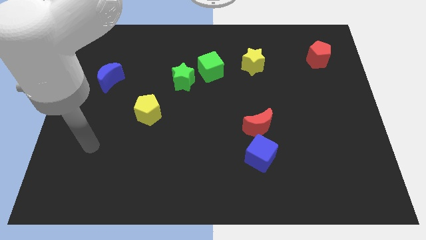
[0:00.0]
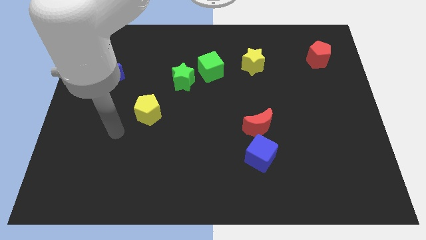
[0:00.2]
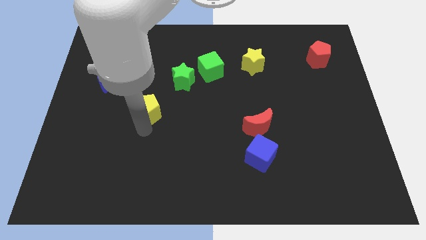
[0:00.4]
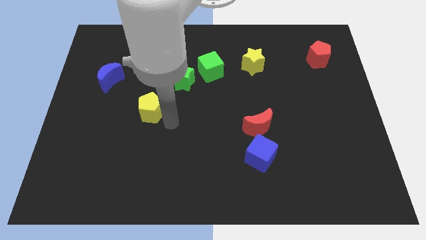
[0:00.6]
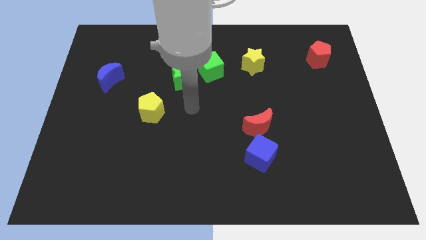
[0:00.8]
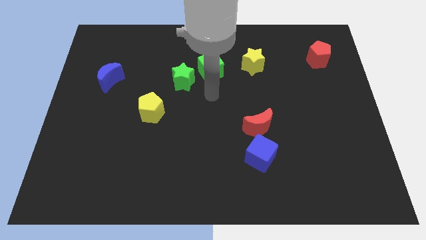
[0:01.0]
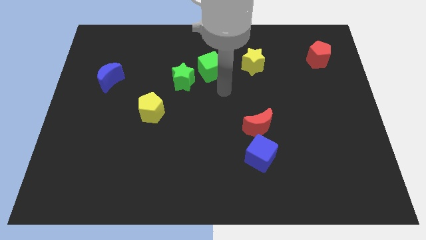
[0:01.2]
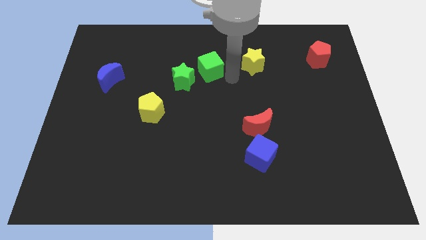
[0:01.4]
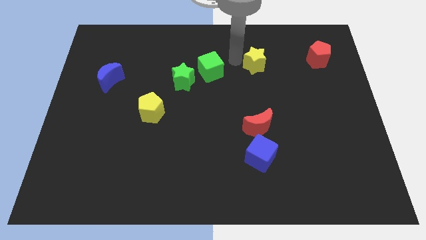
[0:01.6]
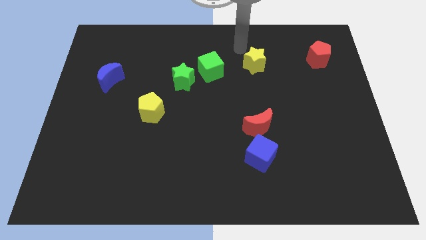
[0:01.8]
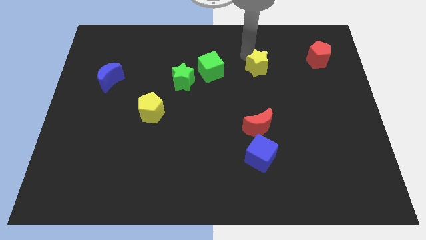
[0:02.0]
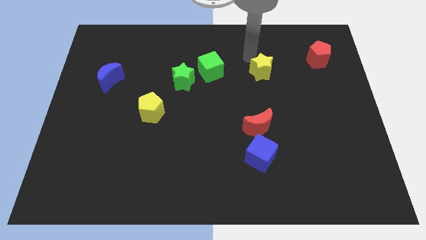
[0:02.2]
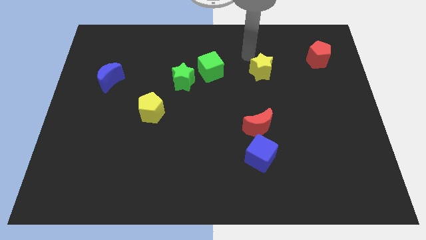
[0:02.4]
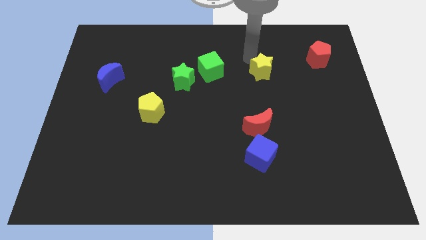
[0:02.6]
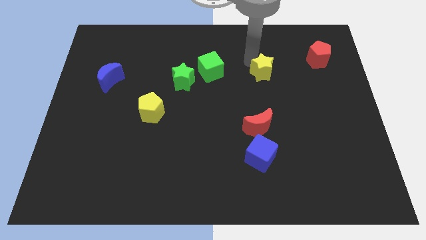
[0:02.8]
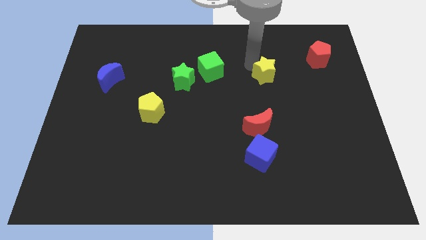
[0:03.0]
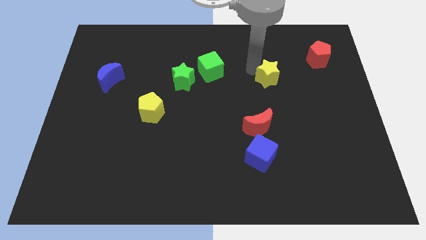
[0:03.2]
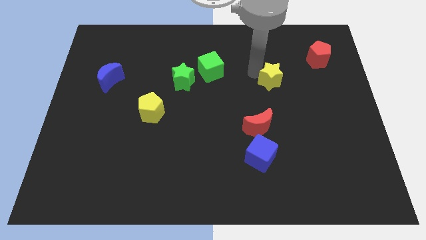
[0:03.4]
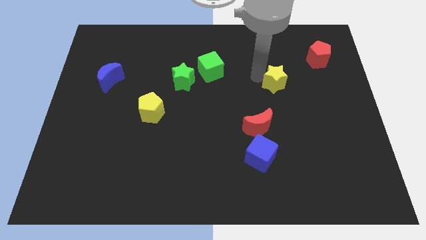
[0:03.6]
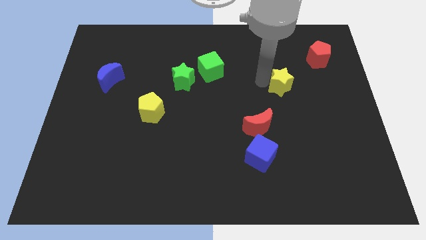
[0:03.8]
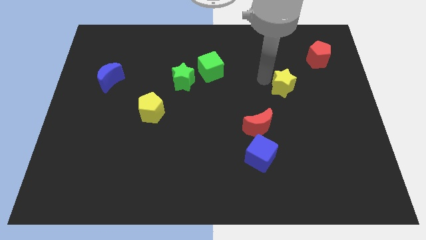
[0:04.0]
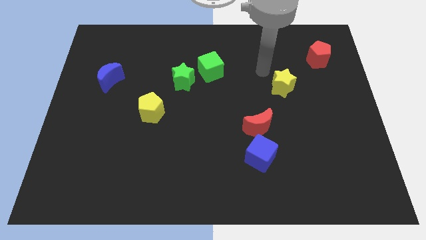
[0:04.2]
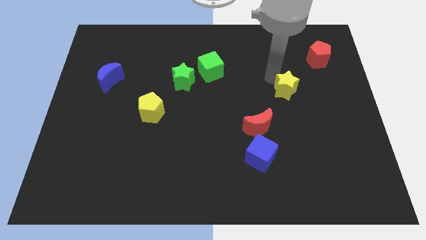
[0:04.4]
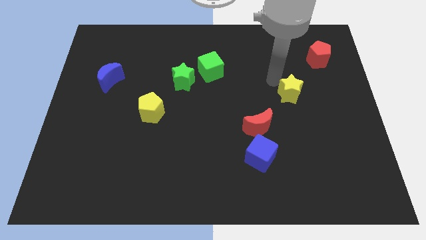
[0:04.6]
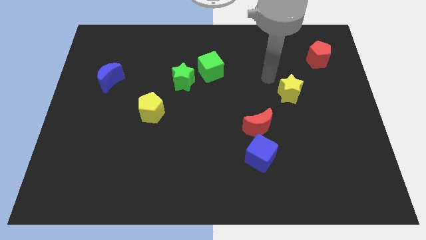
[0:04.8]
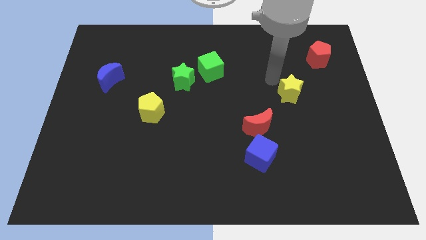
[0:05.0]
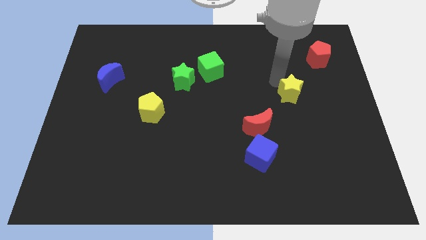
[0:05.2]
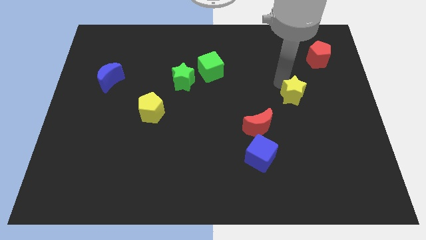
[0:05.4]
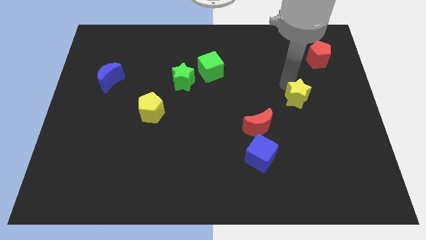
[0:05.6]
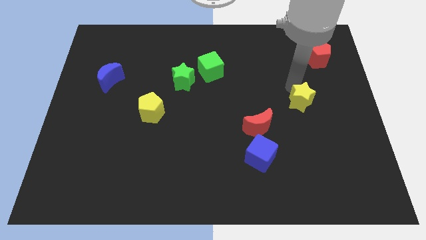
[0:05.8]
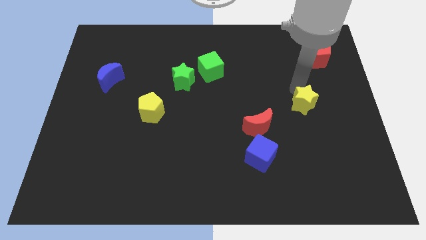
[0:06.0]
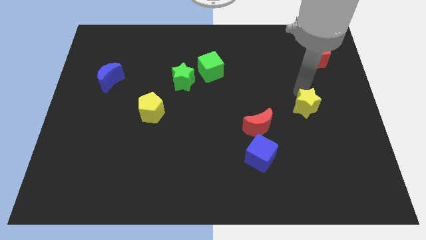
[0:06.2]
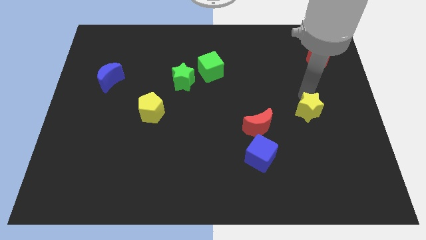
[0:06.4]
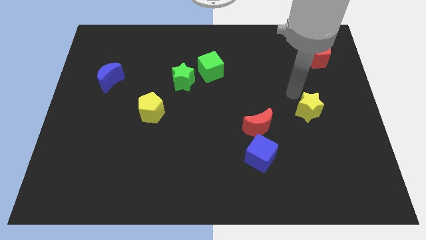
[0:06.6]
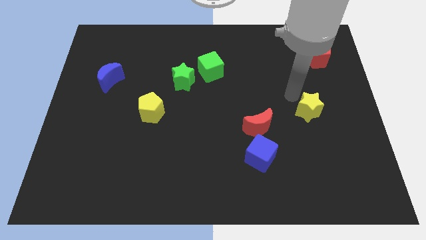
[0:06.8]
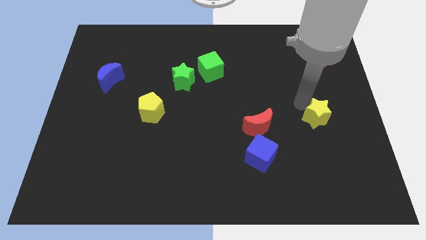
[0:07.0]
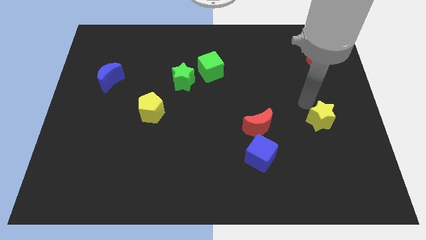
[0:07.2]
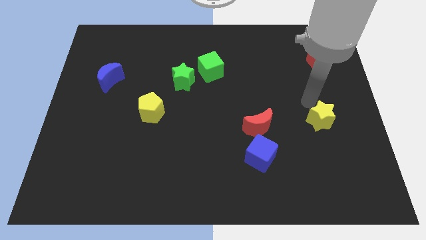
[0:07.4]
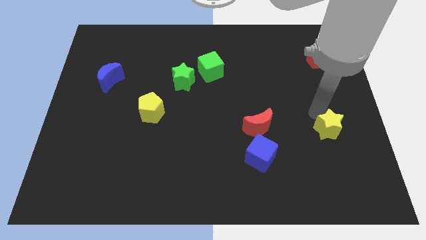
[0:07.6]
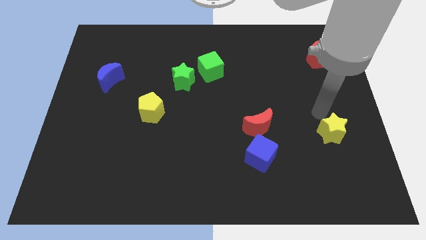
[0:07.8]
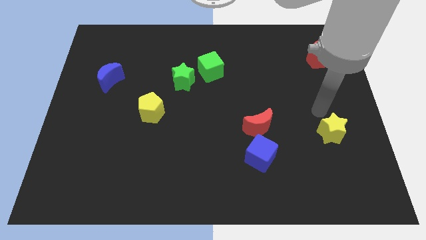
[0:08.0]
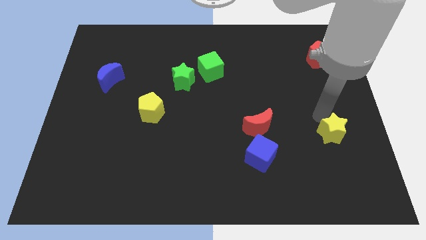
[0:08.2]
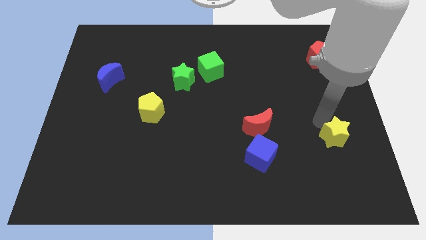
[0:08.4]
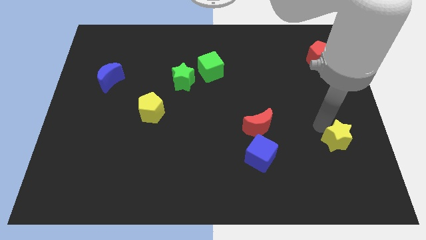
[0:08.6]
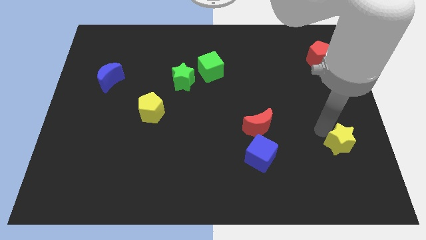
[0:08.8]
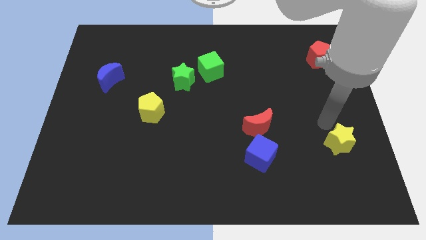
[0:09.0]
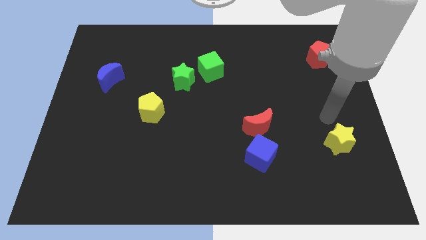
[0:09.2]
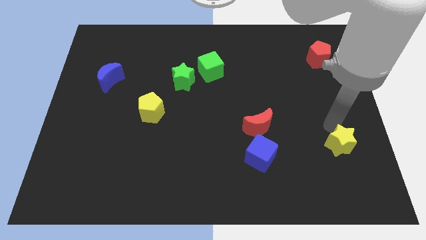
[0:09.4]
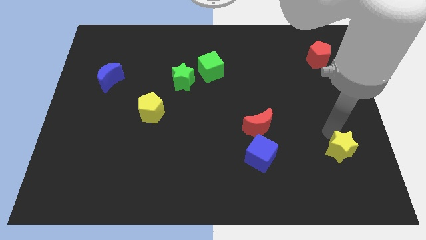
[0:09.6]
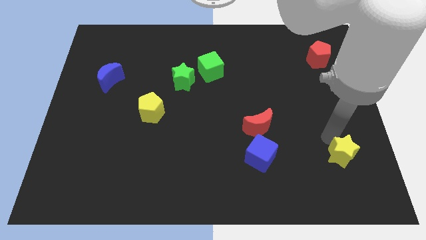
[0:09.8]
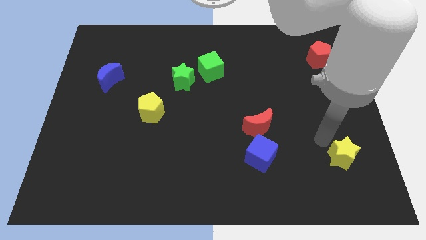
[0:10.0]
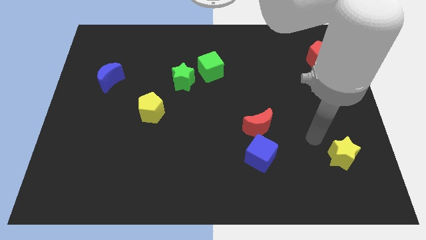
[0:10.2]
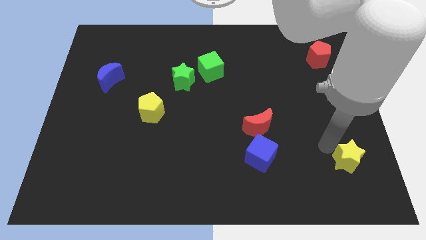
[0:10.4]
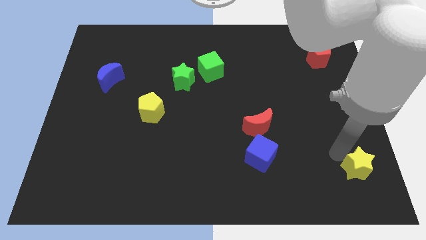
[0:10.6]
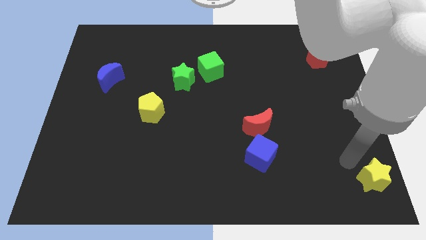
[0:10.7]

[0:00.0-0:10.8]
slide the yellow star to the bottom right of the board

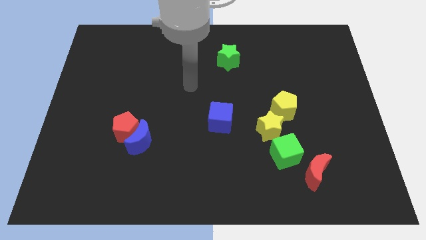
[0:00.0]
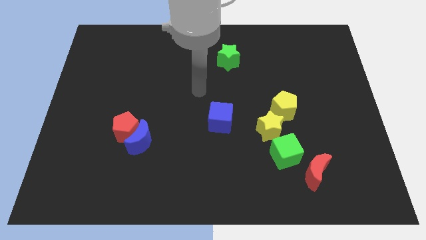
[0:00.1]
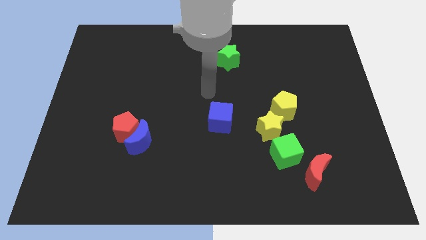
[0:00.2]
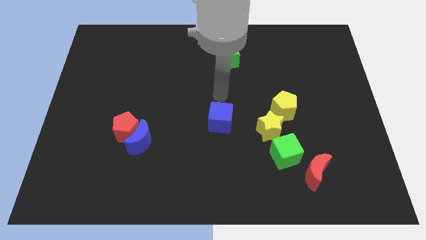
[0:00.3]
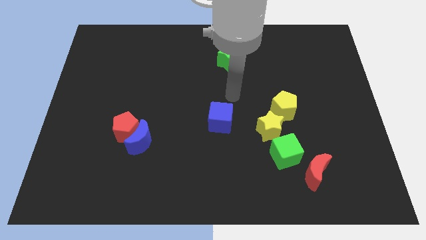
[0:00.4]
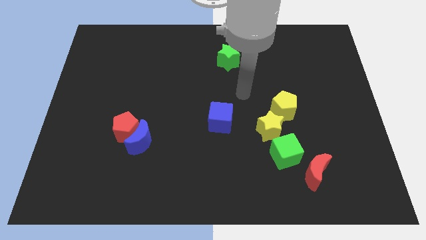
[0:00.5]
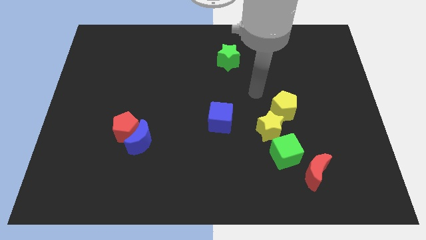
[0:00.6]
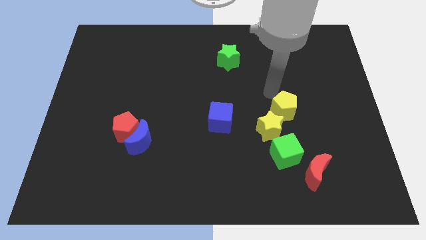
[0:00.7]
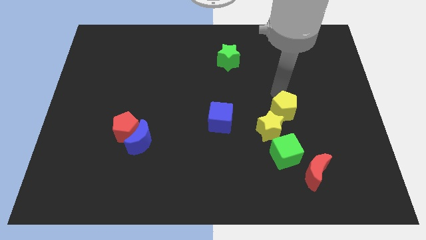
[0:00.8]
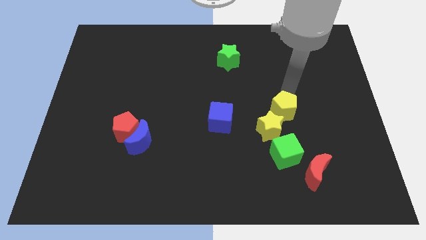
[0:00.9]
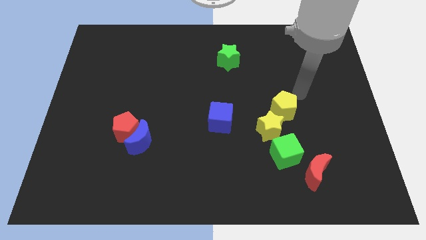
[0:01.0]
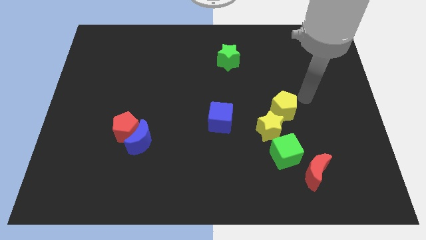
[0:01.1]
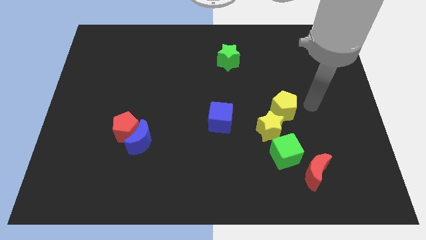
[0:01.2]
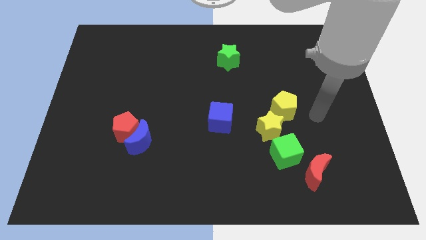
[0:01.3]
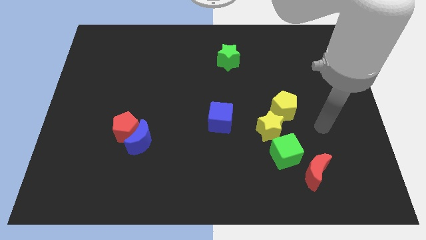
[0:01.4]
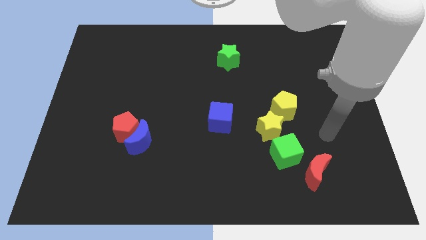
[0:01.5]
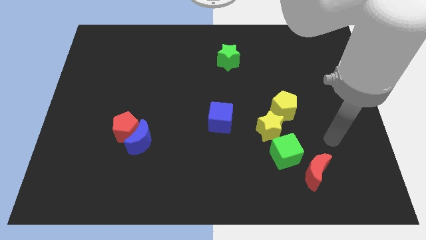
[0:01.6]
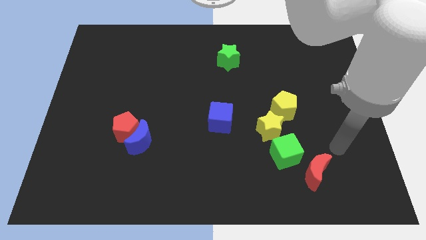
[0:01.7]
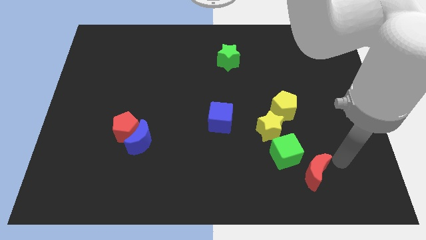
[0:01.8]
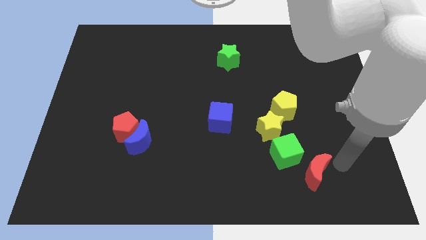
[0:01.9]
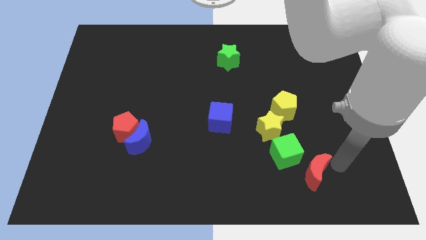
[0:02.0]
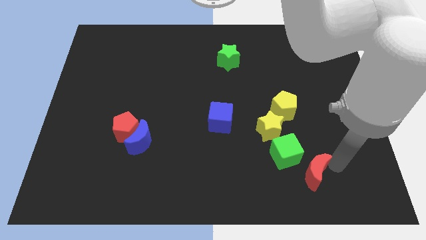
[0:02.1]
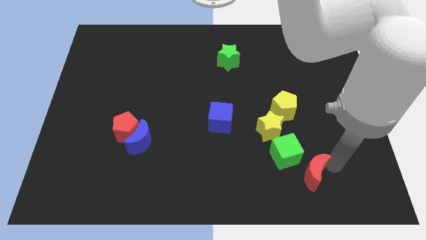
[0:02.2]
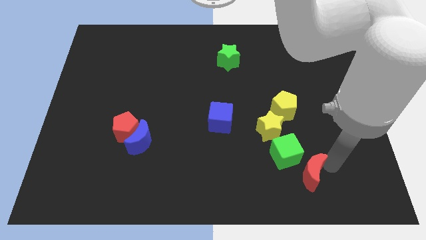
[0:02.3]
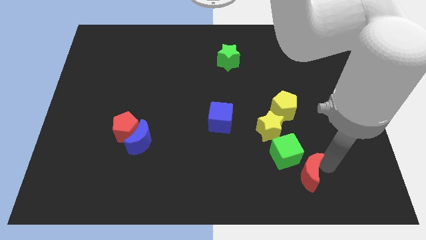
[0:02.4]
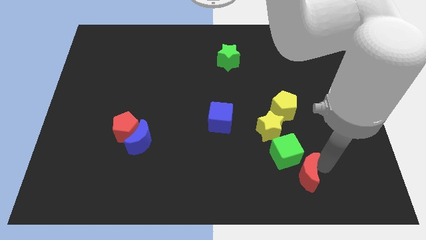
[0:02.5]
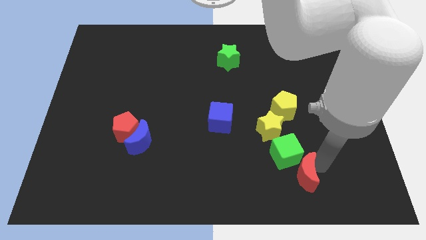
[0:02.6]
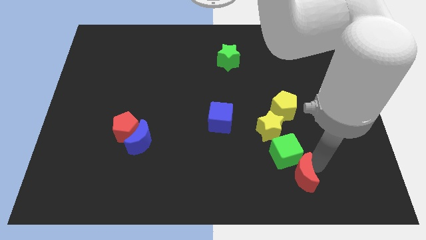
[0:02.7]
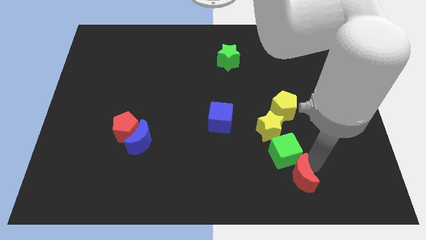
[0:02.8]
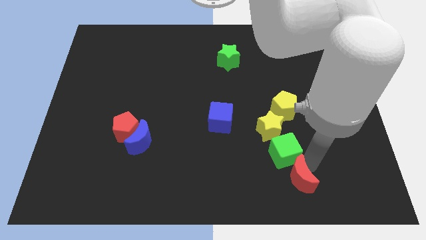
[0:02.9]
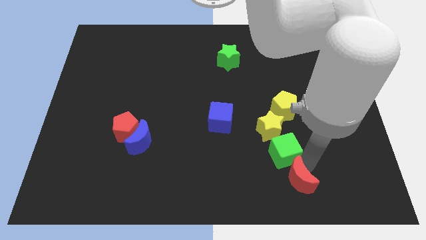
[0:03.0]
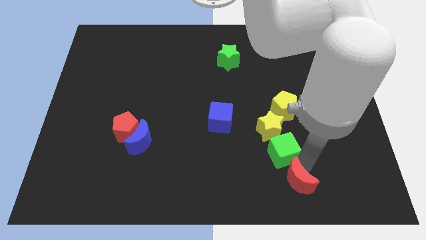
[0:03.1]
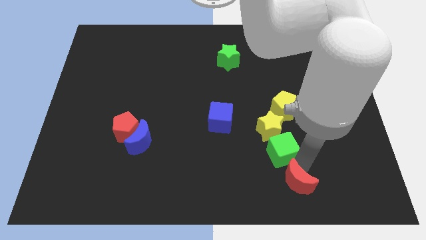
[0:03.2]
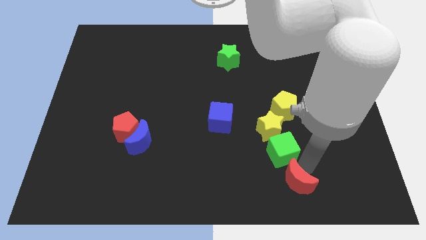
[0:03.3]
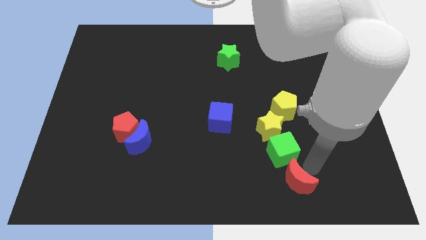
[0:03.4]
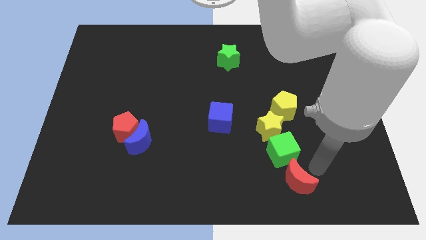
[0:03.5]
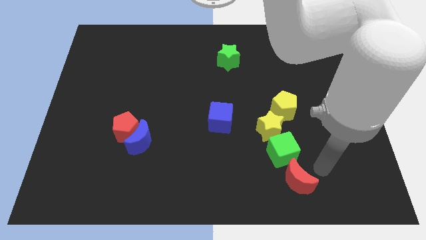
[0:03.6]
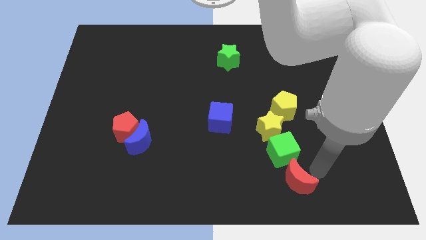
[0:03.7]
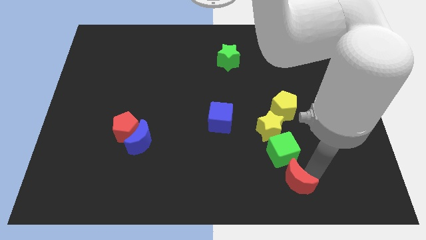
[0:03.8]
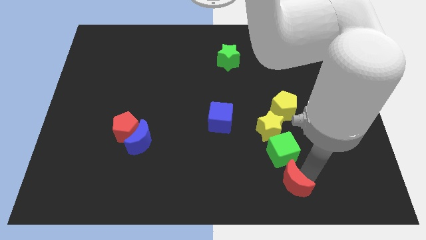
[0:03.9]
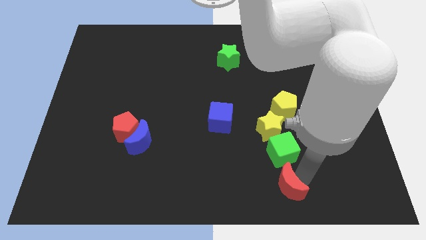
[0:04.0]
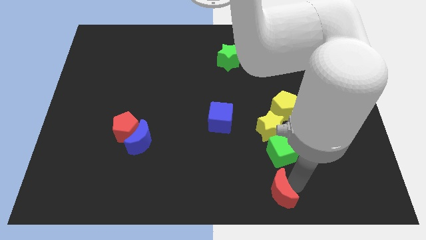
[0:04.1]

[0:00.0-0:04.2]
put the red moon to the bottom side
